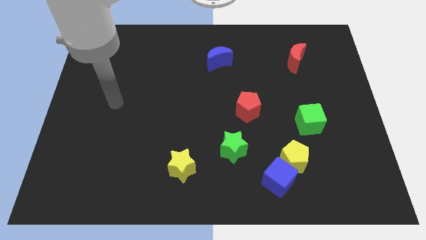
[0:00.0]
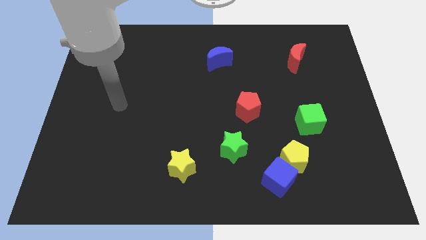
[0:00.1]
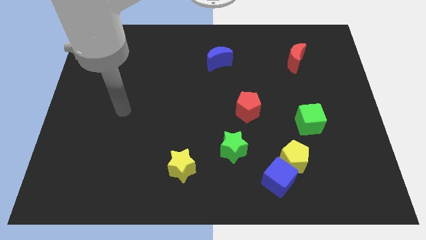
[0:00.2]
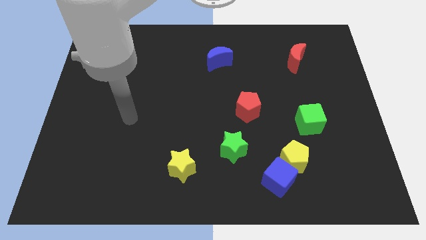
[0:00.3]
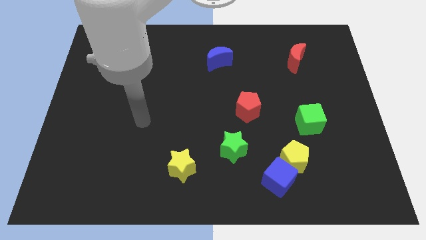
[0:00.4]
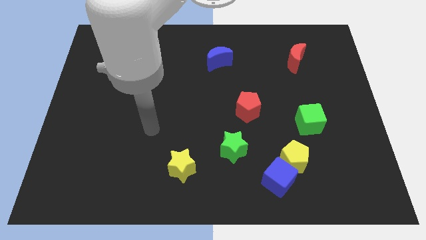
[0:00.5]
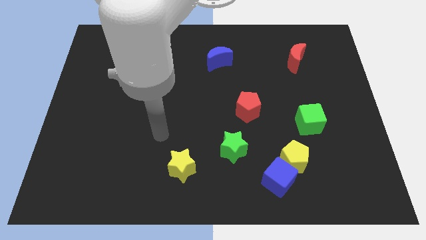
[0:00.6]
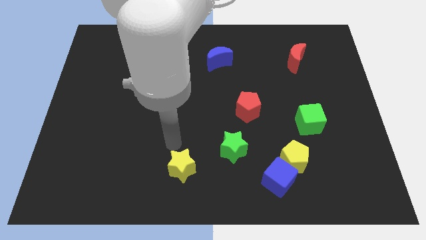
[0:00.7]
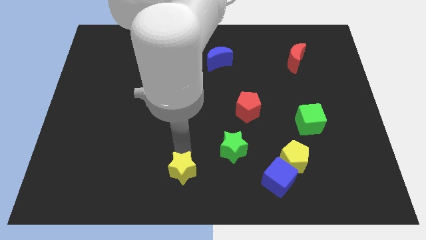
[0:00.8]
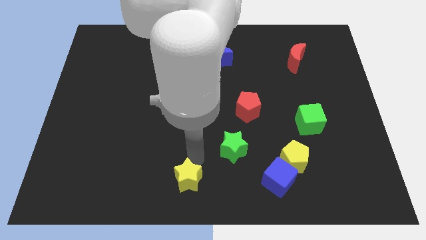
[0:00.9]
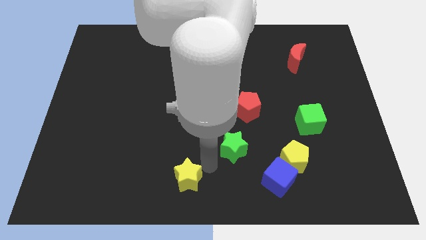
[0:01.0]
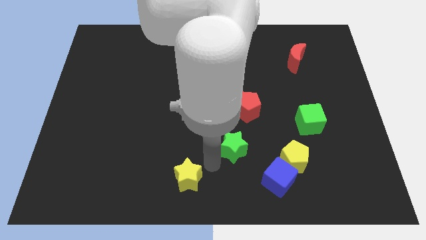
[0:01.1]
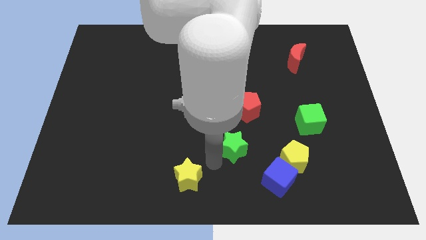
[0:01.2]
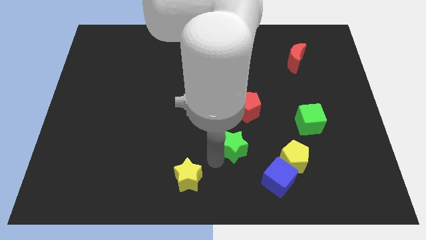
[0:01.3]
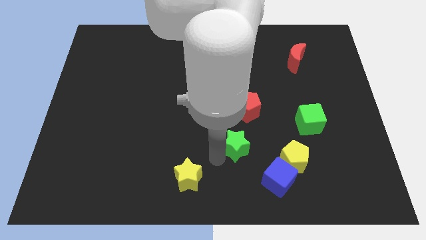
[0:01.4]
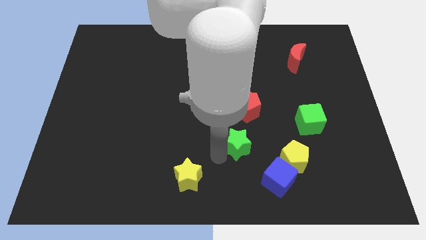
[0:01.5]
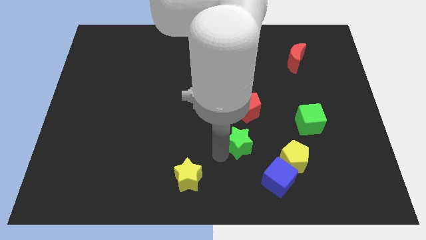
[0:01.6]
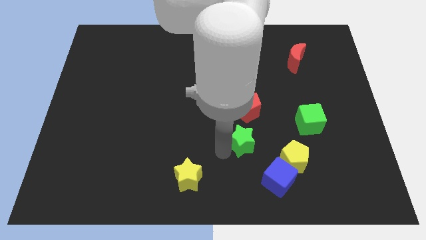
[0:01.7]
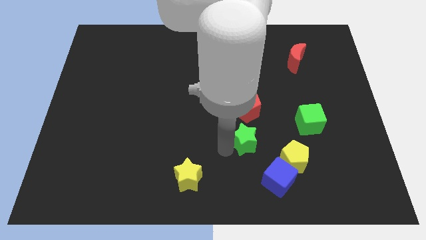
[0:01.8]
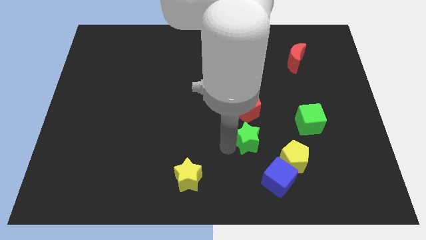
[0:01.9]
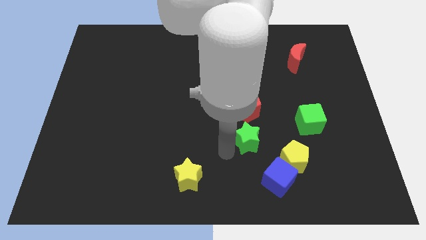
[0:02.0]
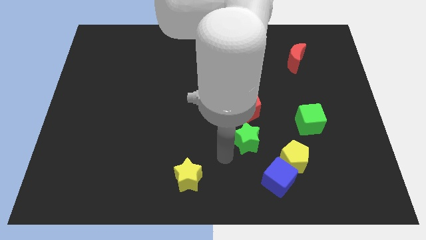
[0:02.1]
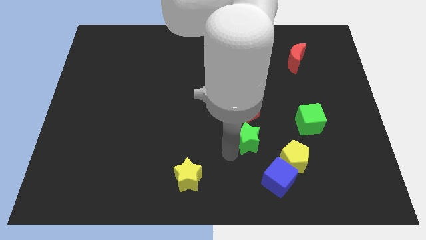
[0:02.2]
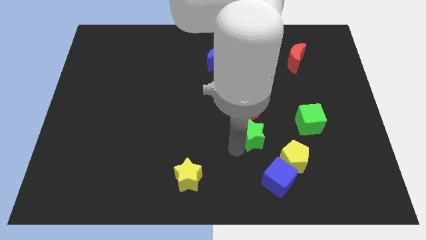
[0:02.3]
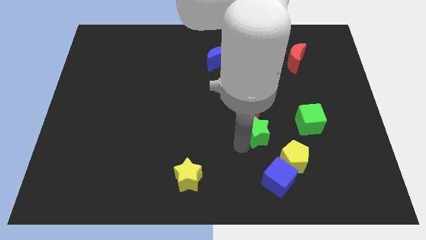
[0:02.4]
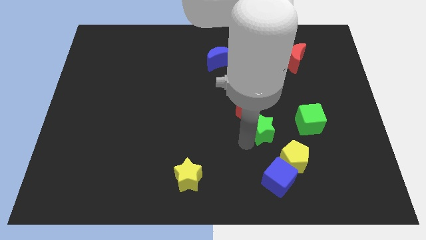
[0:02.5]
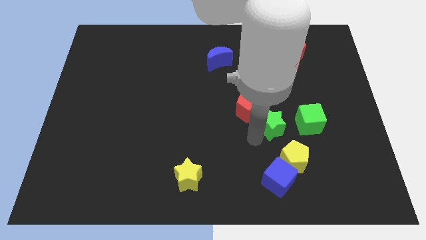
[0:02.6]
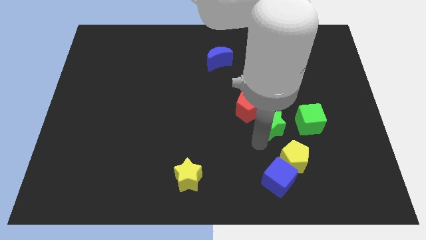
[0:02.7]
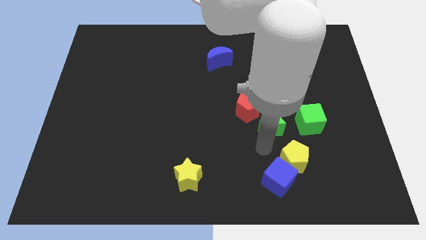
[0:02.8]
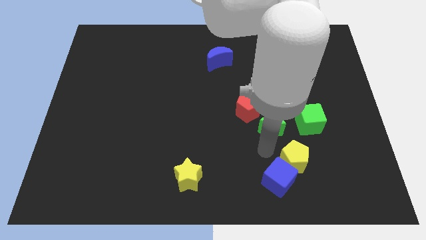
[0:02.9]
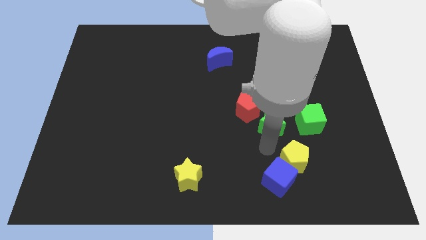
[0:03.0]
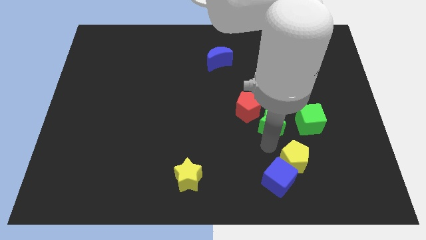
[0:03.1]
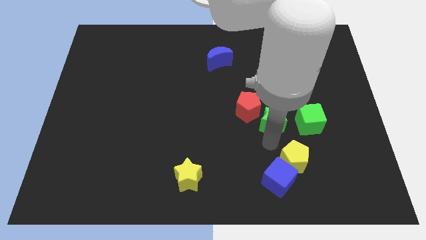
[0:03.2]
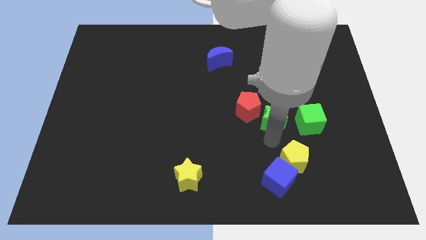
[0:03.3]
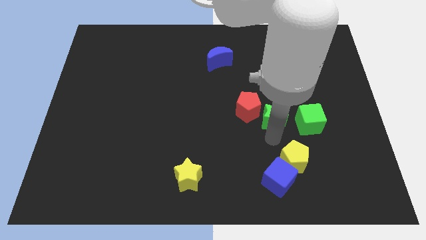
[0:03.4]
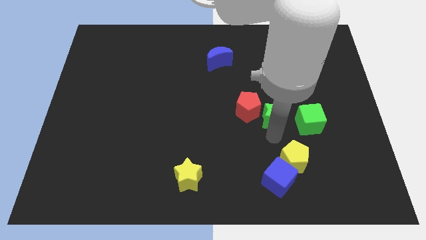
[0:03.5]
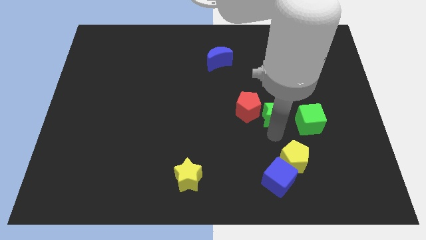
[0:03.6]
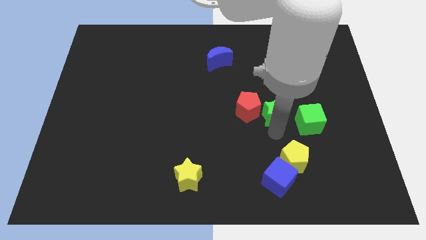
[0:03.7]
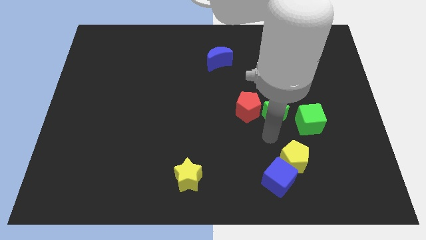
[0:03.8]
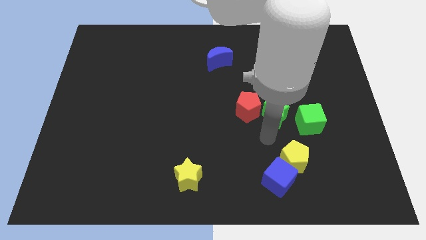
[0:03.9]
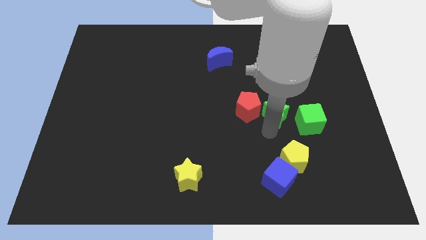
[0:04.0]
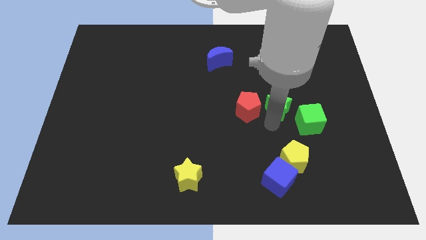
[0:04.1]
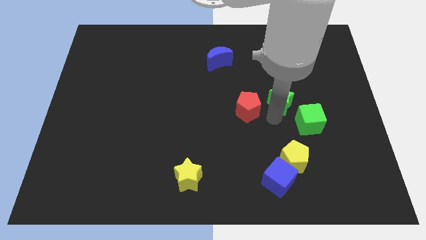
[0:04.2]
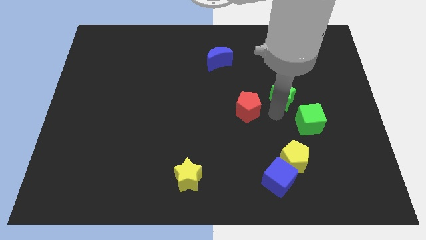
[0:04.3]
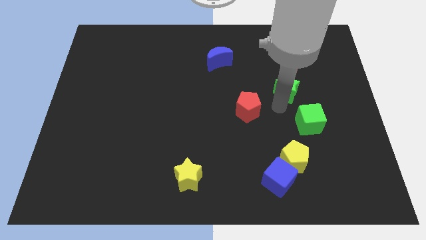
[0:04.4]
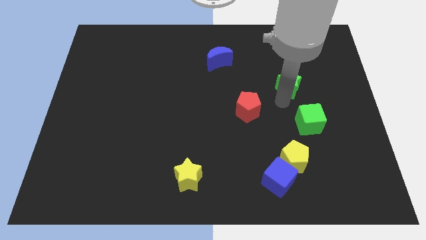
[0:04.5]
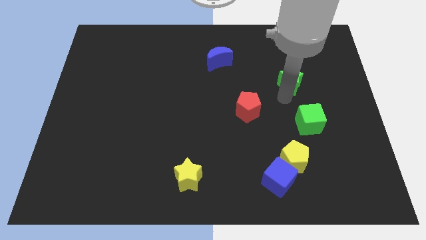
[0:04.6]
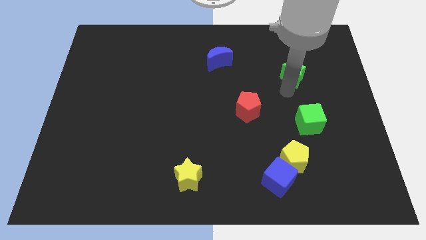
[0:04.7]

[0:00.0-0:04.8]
push the green star close to the red moon

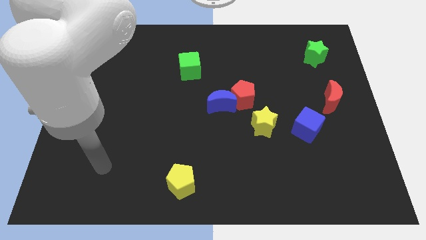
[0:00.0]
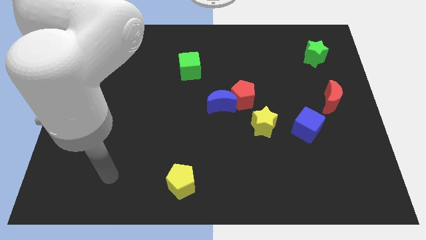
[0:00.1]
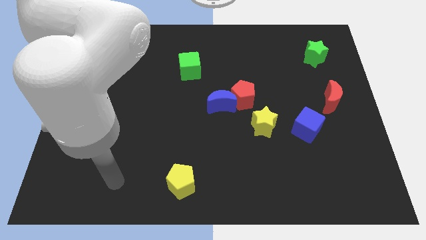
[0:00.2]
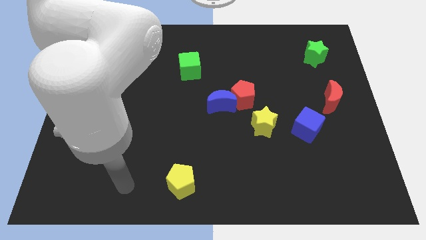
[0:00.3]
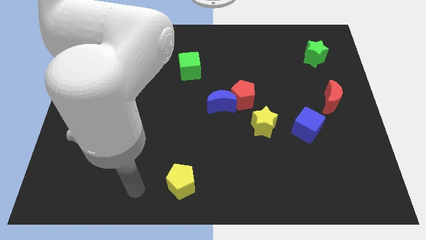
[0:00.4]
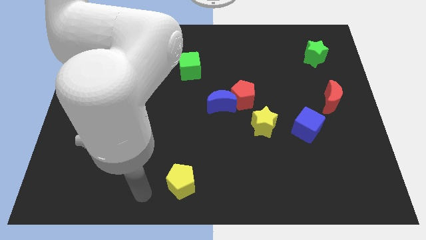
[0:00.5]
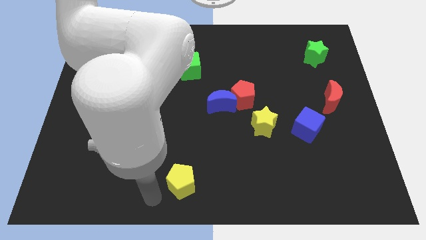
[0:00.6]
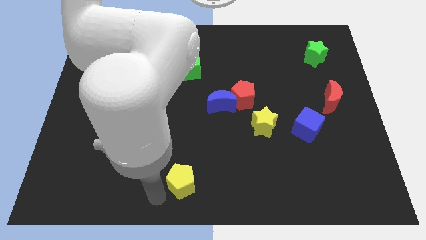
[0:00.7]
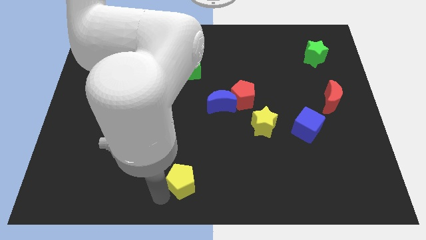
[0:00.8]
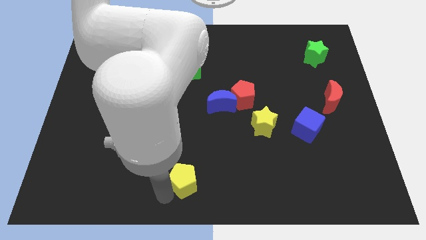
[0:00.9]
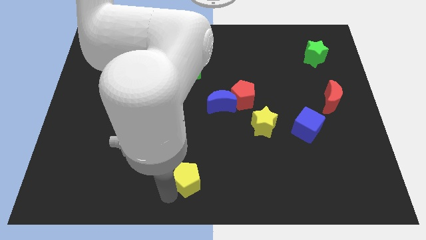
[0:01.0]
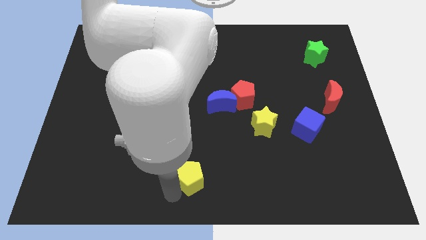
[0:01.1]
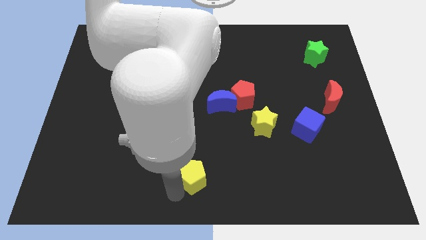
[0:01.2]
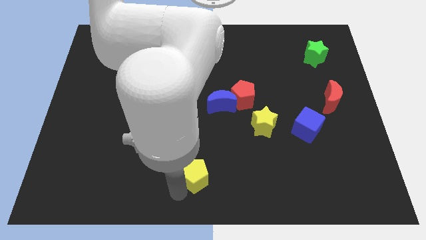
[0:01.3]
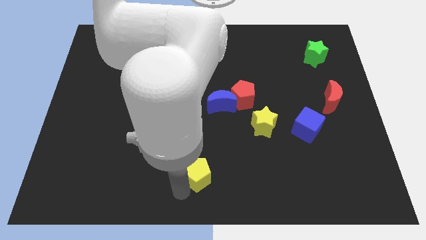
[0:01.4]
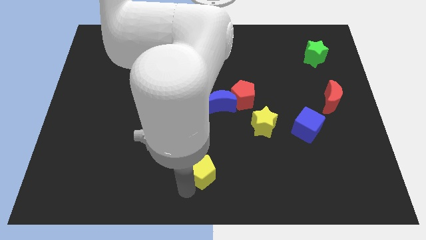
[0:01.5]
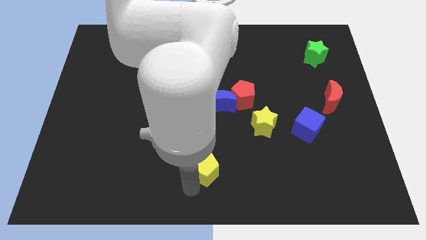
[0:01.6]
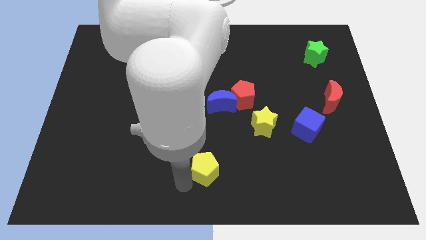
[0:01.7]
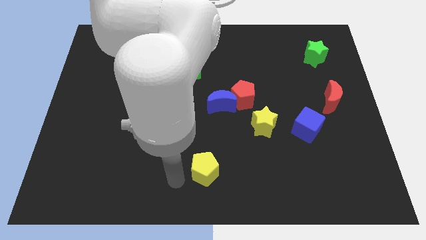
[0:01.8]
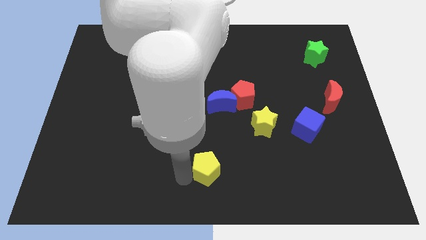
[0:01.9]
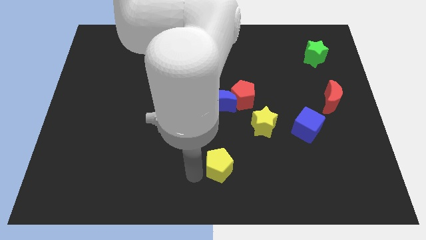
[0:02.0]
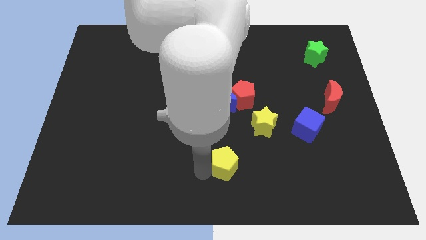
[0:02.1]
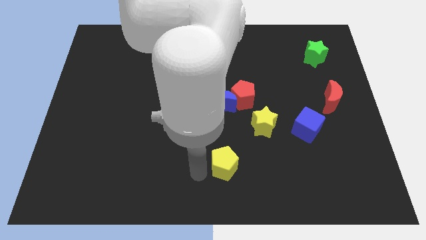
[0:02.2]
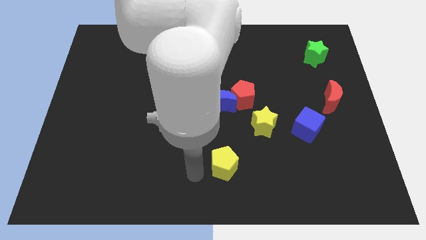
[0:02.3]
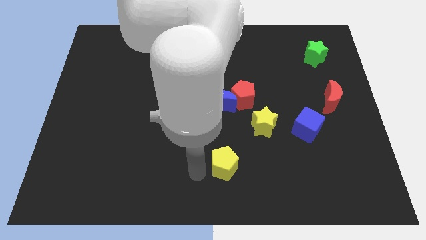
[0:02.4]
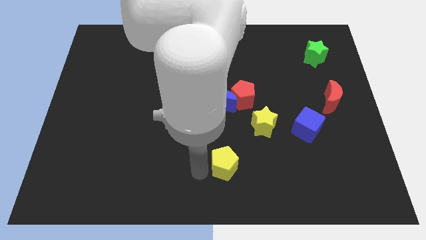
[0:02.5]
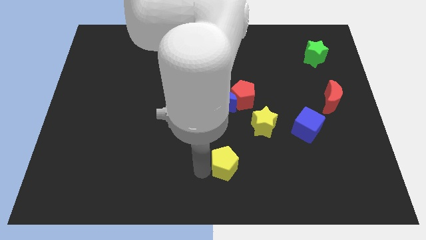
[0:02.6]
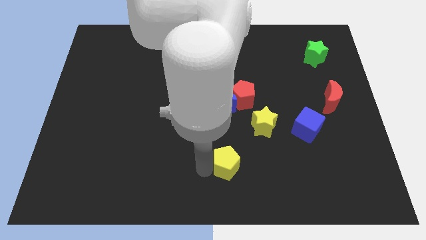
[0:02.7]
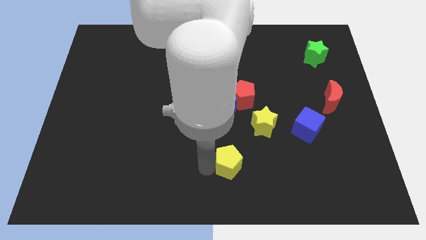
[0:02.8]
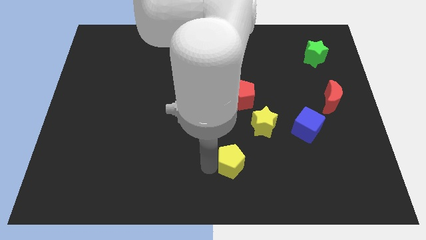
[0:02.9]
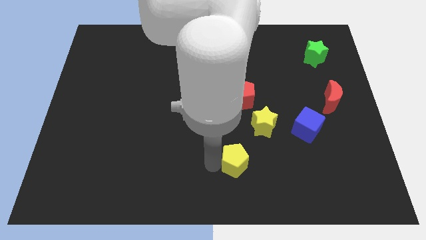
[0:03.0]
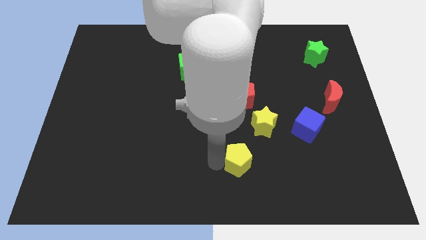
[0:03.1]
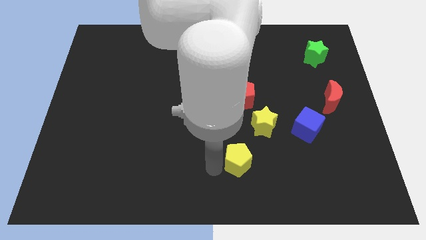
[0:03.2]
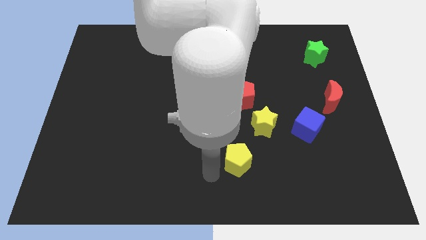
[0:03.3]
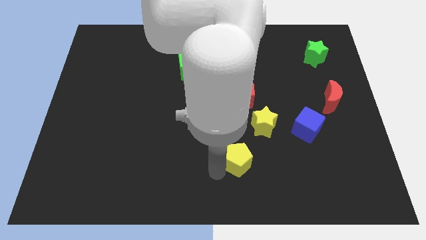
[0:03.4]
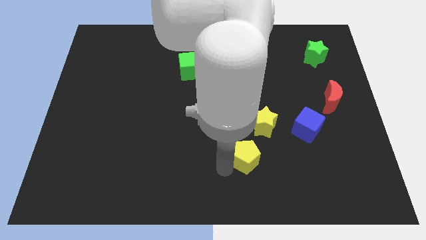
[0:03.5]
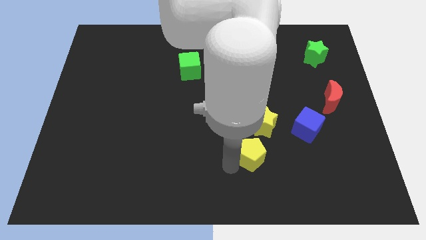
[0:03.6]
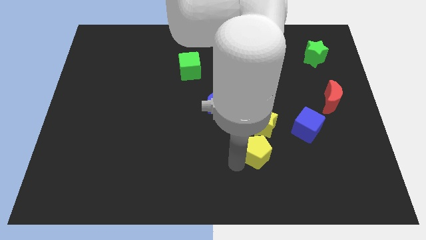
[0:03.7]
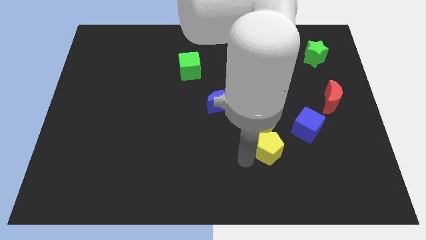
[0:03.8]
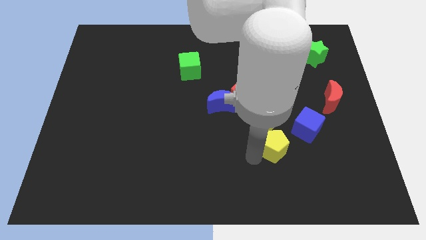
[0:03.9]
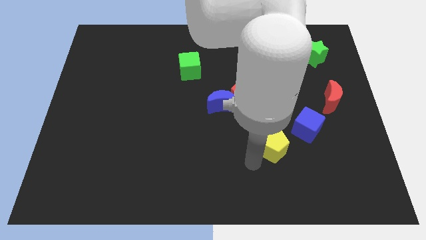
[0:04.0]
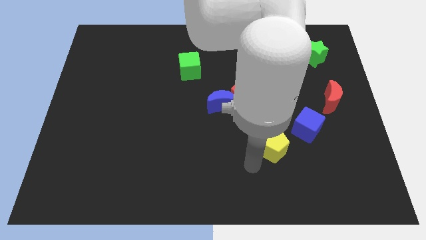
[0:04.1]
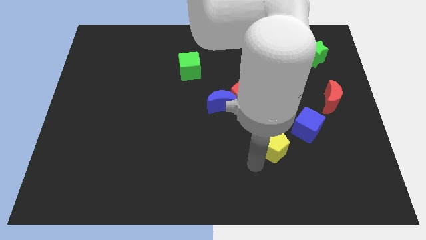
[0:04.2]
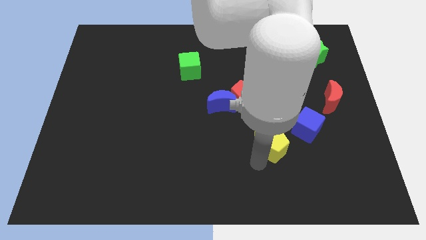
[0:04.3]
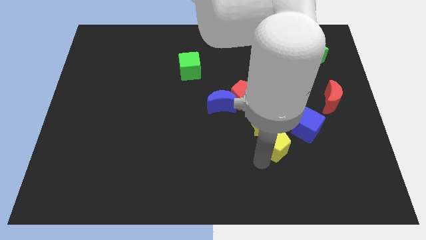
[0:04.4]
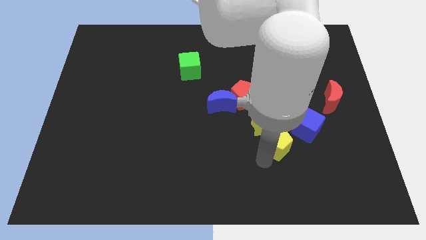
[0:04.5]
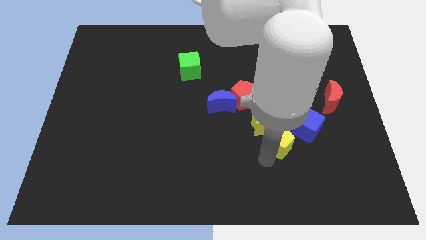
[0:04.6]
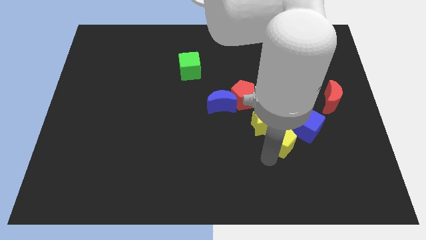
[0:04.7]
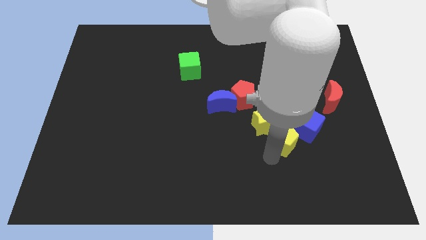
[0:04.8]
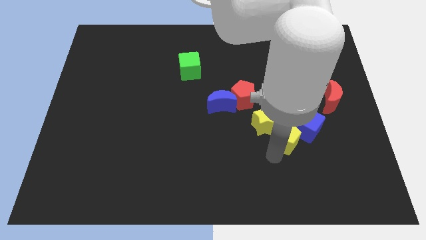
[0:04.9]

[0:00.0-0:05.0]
slide the yellow pentagon close to the blue cube
